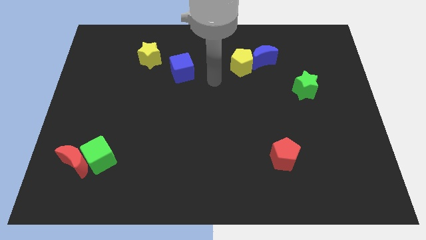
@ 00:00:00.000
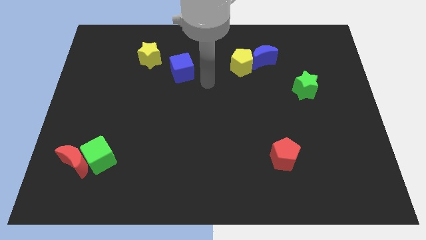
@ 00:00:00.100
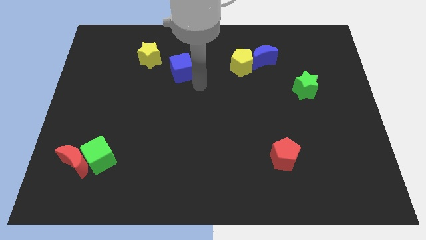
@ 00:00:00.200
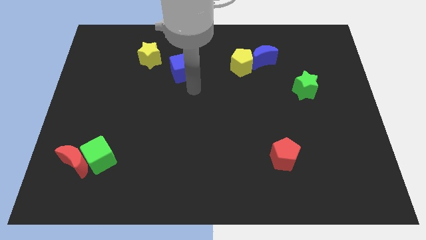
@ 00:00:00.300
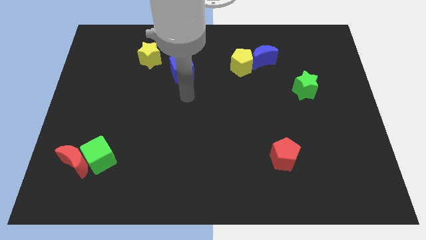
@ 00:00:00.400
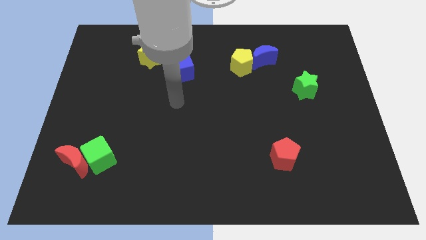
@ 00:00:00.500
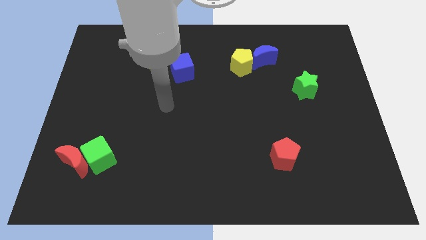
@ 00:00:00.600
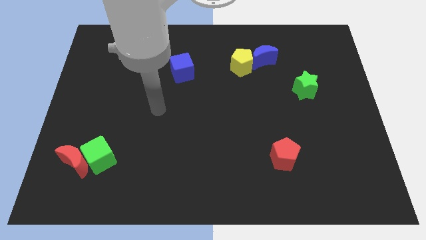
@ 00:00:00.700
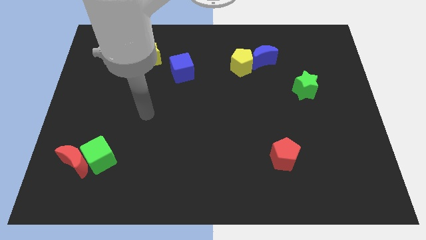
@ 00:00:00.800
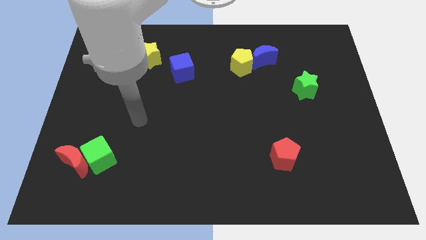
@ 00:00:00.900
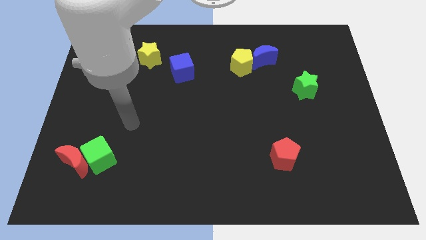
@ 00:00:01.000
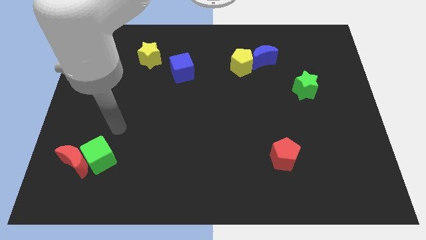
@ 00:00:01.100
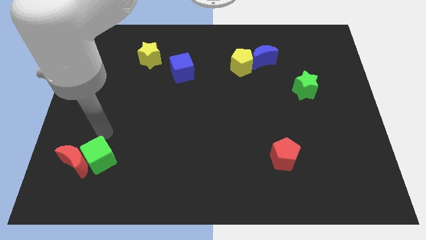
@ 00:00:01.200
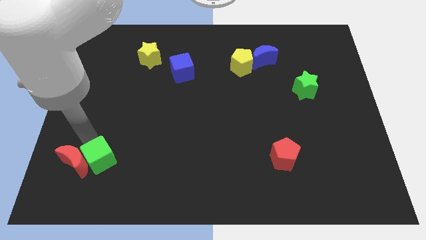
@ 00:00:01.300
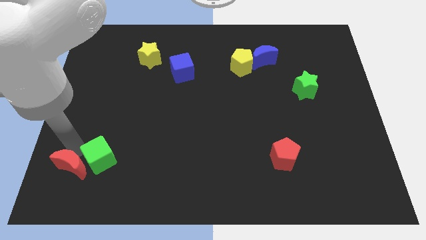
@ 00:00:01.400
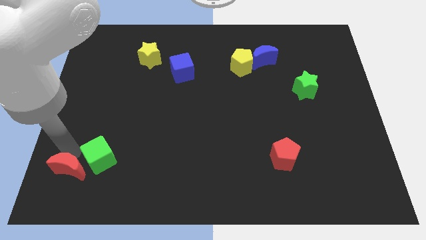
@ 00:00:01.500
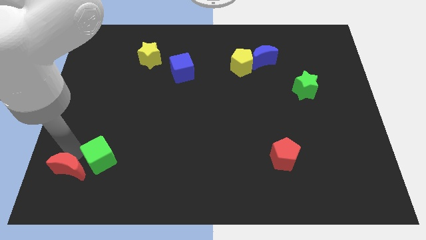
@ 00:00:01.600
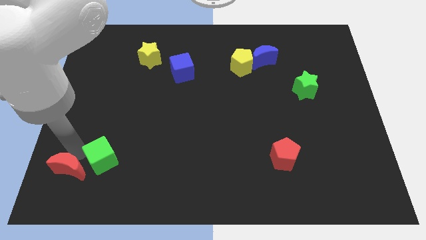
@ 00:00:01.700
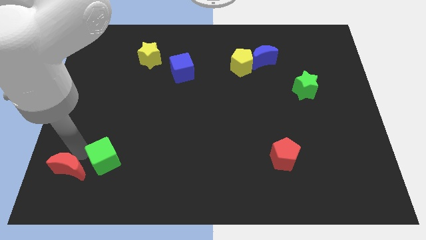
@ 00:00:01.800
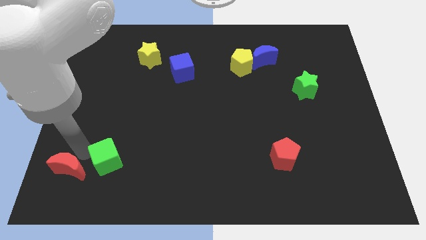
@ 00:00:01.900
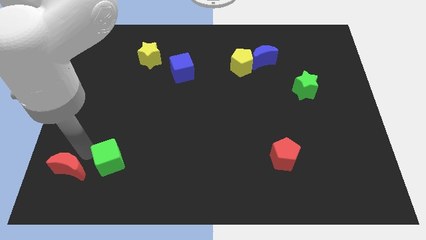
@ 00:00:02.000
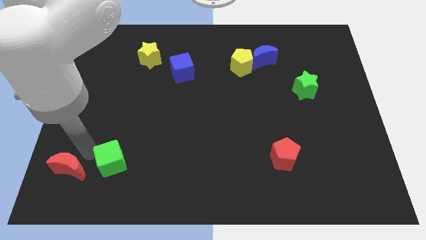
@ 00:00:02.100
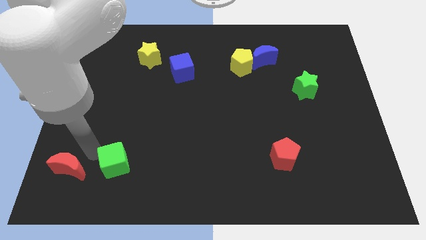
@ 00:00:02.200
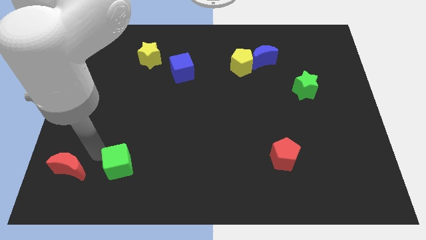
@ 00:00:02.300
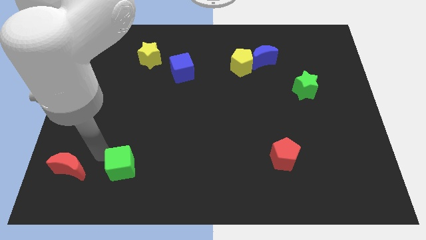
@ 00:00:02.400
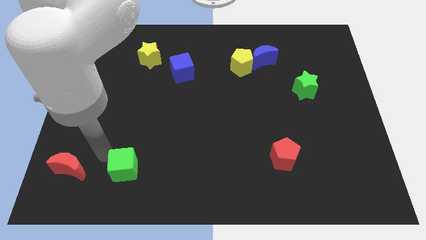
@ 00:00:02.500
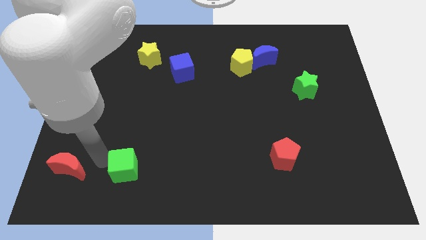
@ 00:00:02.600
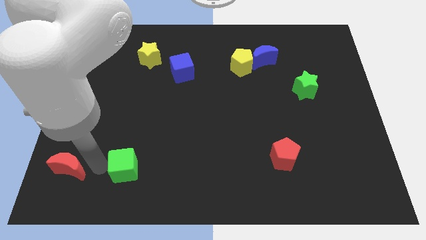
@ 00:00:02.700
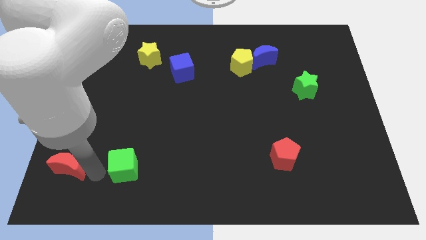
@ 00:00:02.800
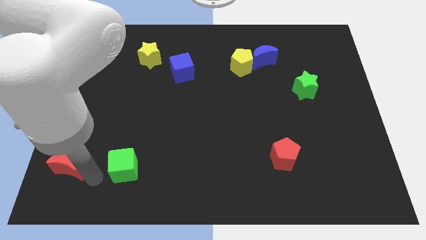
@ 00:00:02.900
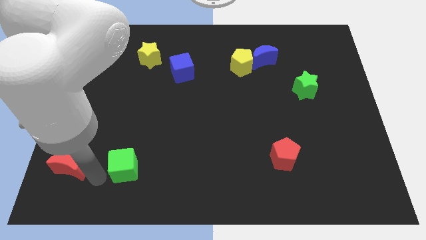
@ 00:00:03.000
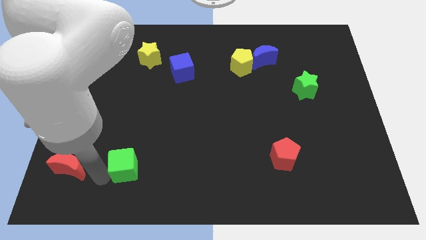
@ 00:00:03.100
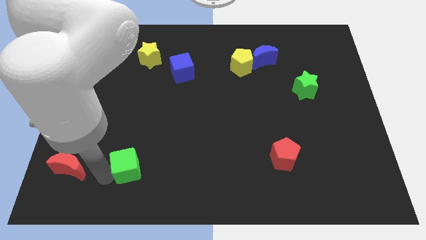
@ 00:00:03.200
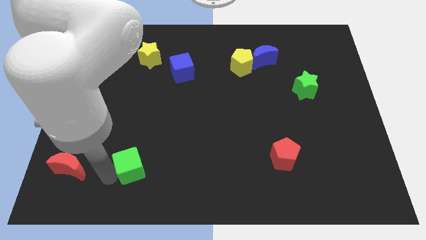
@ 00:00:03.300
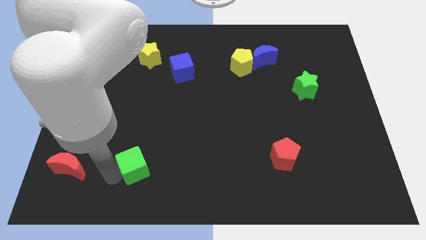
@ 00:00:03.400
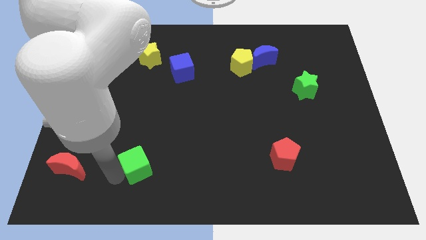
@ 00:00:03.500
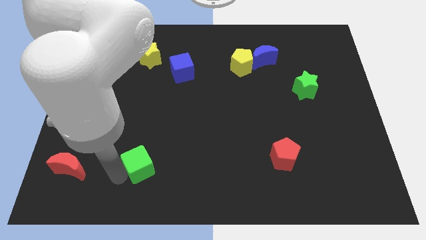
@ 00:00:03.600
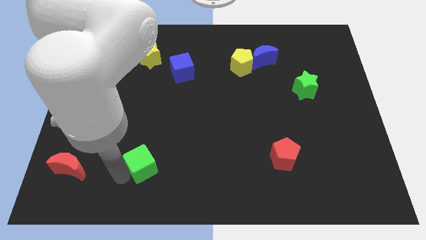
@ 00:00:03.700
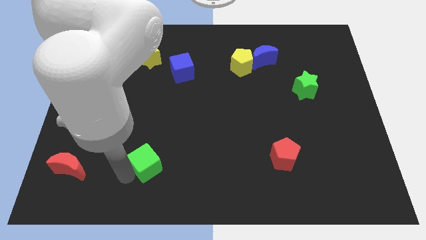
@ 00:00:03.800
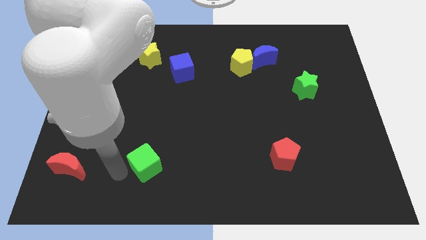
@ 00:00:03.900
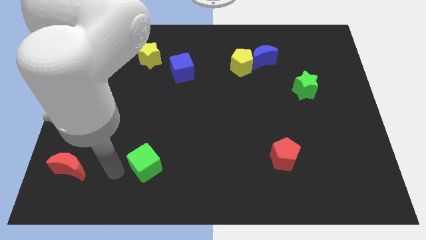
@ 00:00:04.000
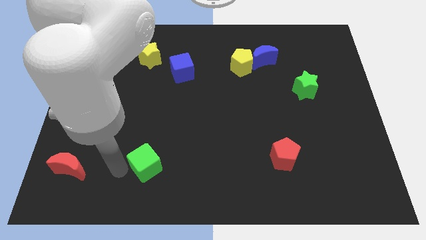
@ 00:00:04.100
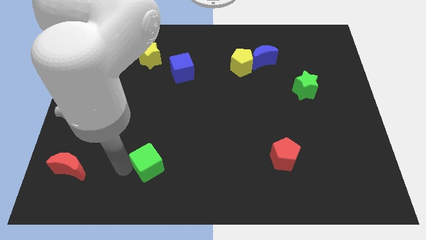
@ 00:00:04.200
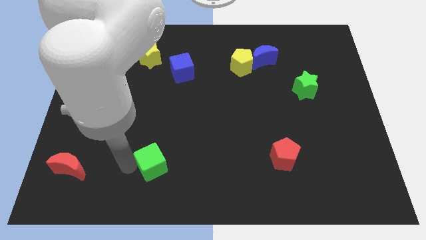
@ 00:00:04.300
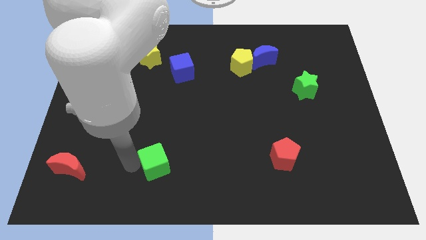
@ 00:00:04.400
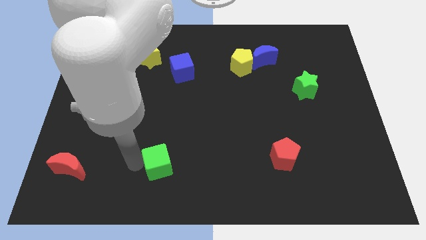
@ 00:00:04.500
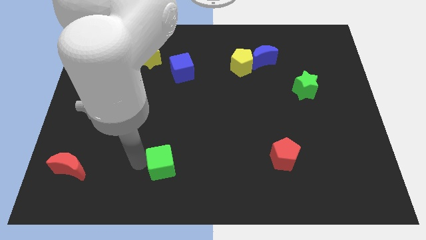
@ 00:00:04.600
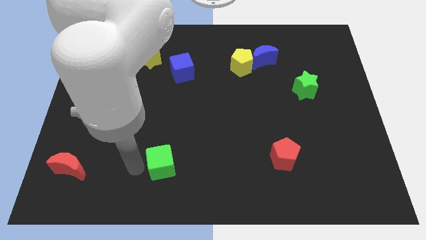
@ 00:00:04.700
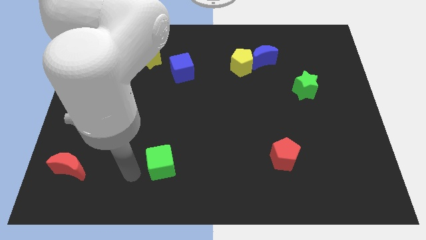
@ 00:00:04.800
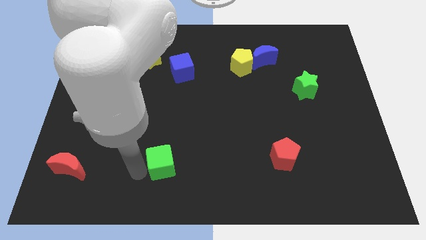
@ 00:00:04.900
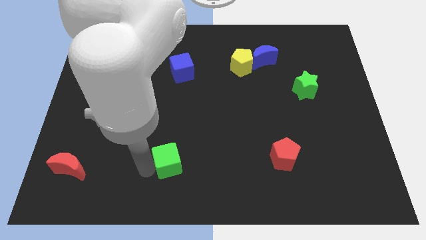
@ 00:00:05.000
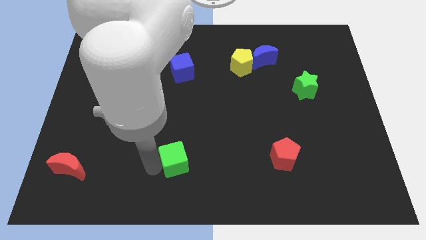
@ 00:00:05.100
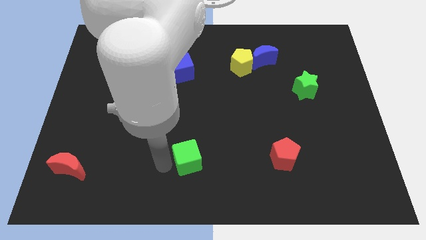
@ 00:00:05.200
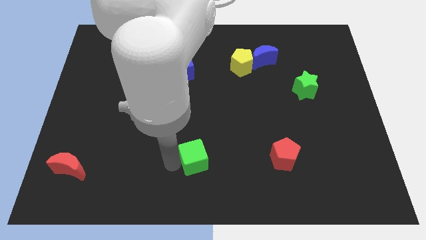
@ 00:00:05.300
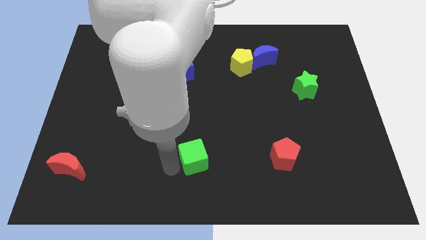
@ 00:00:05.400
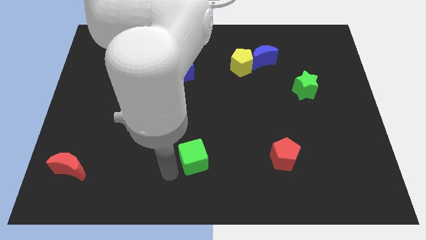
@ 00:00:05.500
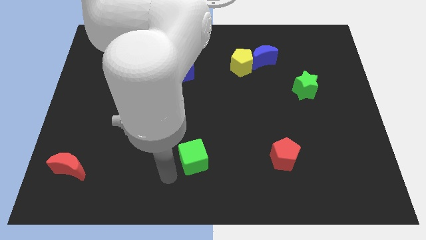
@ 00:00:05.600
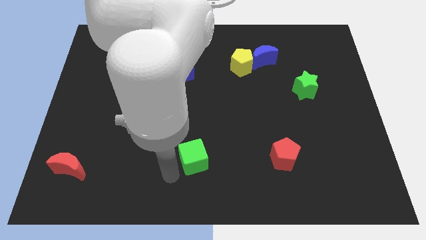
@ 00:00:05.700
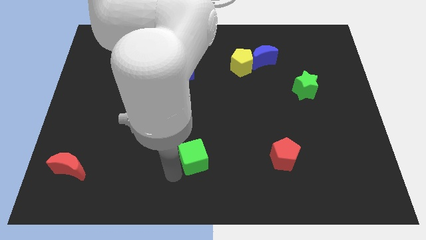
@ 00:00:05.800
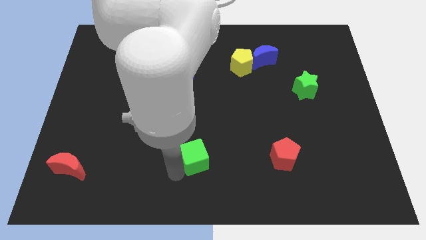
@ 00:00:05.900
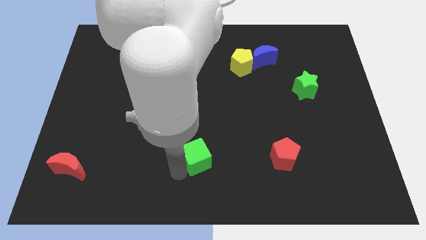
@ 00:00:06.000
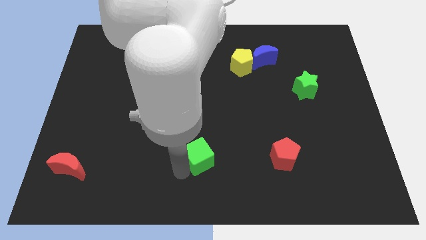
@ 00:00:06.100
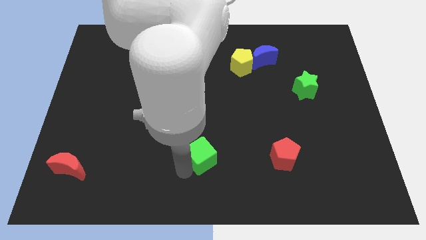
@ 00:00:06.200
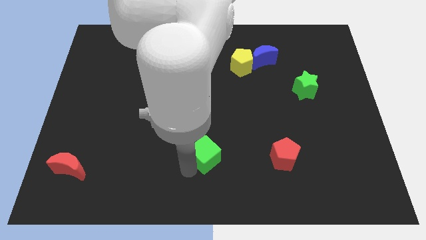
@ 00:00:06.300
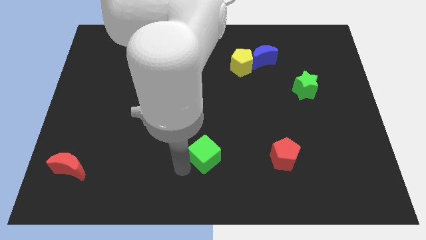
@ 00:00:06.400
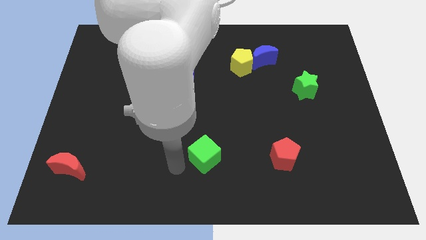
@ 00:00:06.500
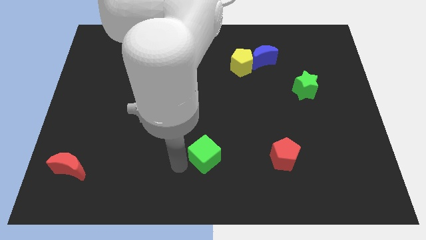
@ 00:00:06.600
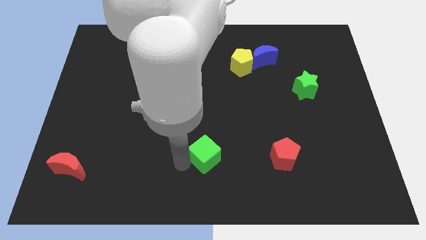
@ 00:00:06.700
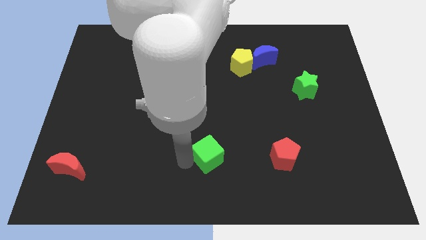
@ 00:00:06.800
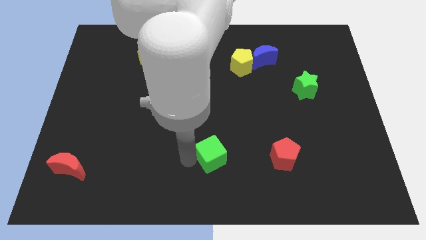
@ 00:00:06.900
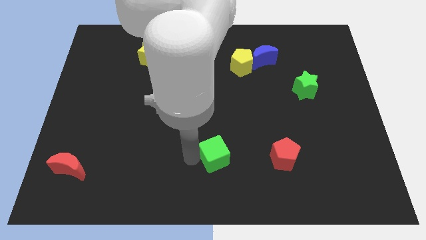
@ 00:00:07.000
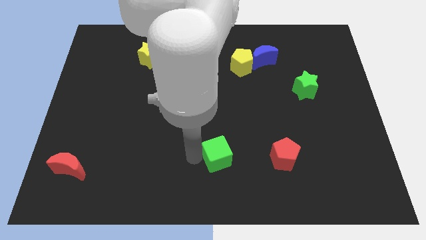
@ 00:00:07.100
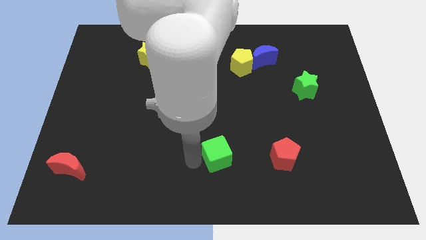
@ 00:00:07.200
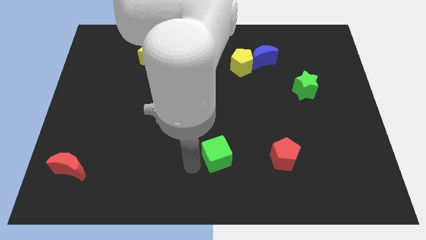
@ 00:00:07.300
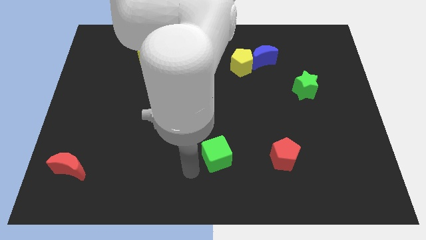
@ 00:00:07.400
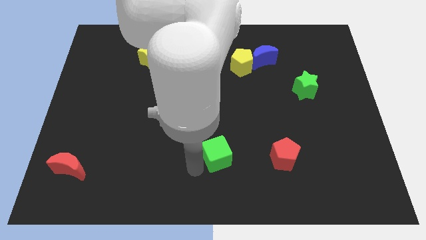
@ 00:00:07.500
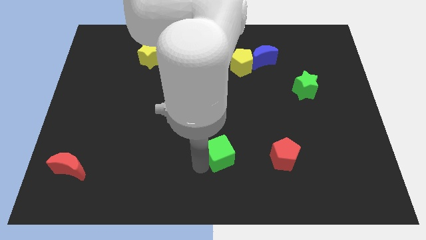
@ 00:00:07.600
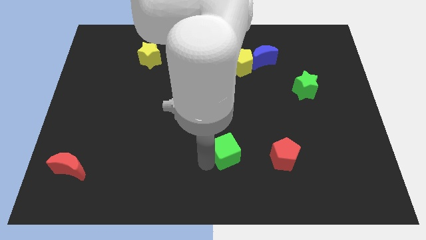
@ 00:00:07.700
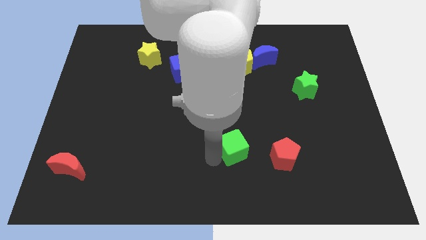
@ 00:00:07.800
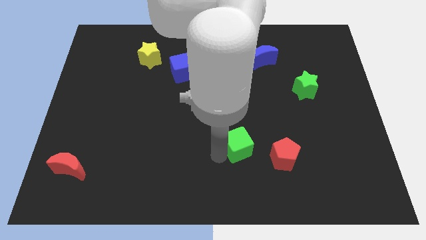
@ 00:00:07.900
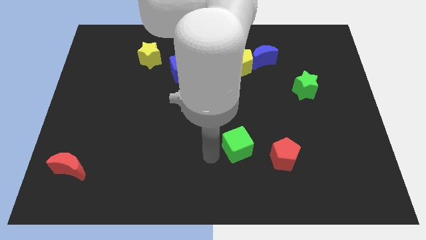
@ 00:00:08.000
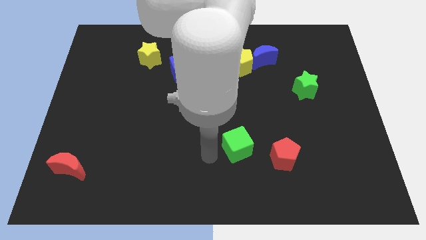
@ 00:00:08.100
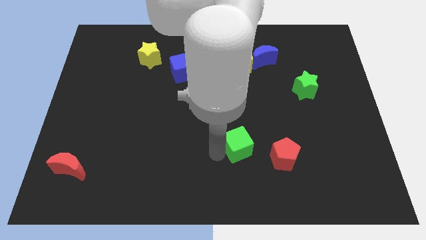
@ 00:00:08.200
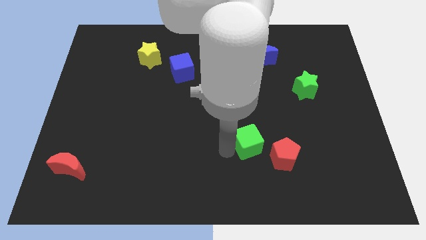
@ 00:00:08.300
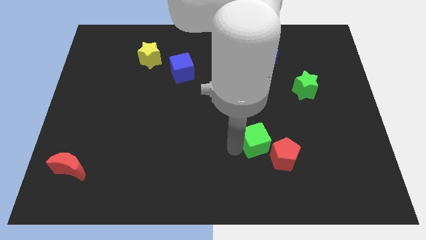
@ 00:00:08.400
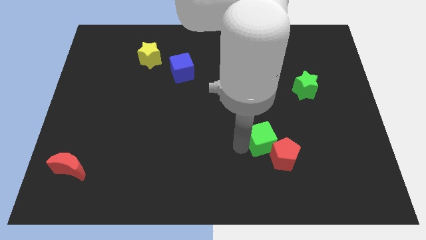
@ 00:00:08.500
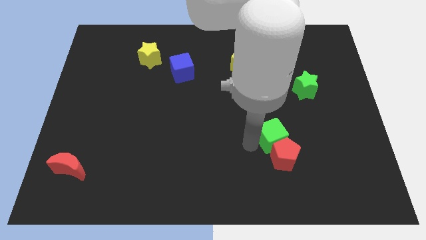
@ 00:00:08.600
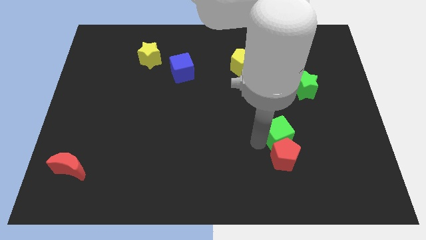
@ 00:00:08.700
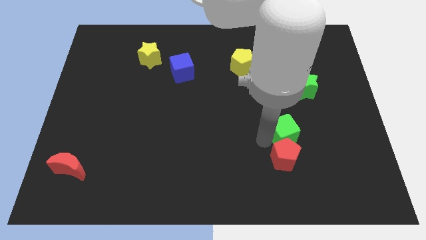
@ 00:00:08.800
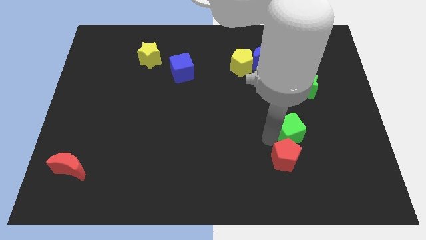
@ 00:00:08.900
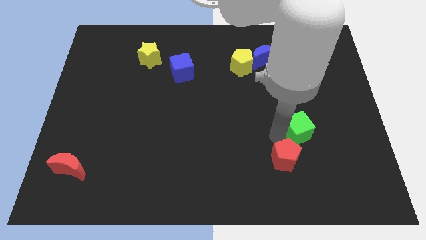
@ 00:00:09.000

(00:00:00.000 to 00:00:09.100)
push the green cube to the bottom of the green star
